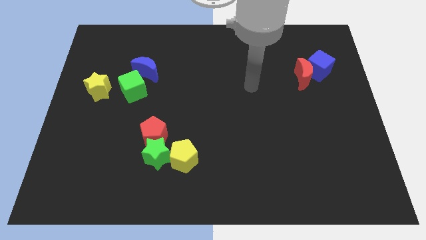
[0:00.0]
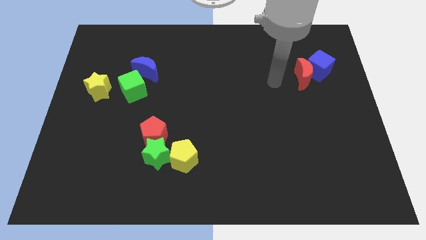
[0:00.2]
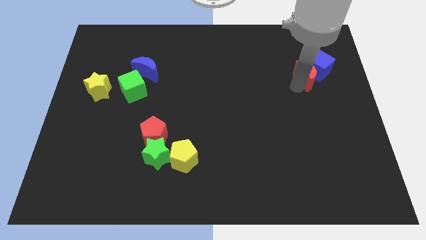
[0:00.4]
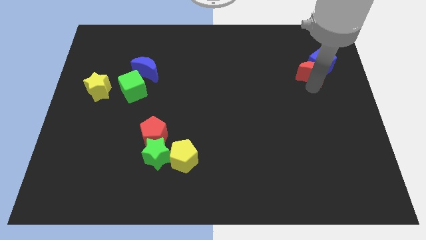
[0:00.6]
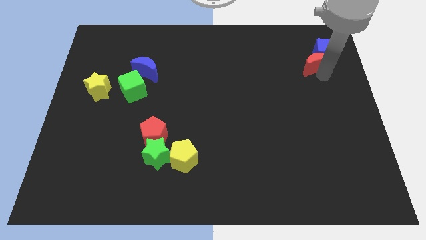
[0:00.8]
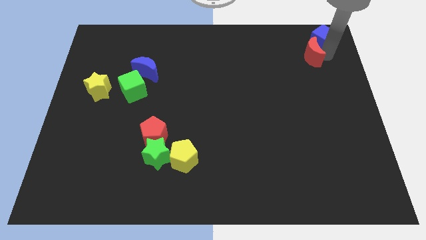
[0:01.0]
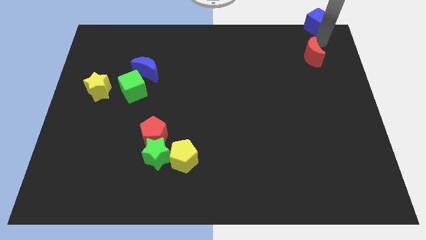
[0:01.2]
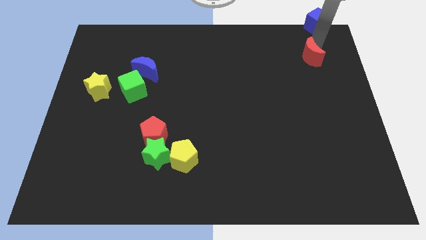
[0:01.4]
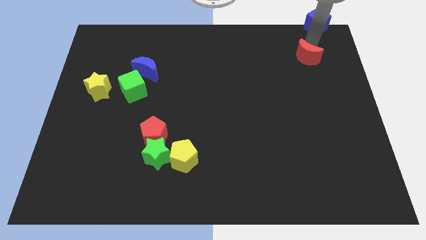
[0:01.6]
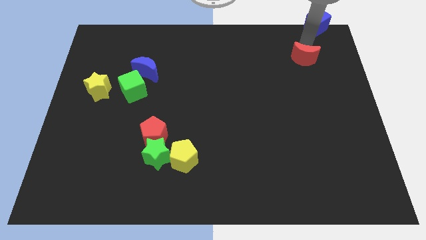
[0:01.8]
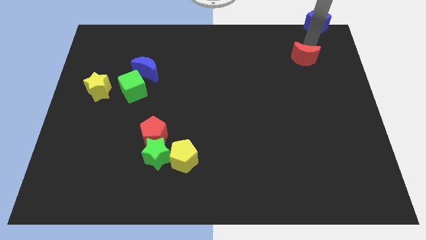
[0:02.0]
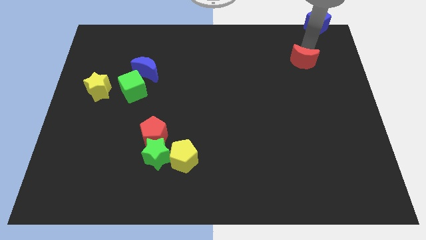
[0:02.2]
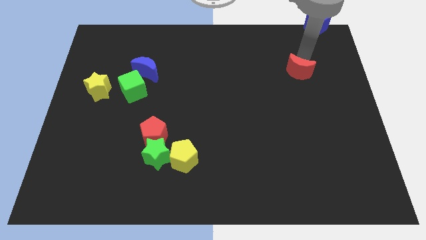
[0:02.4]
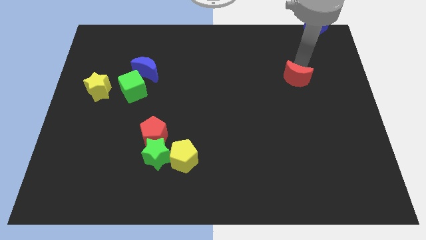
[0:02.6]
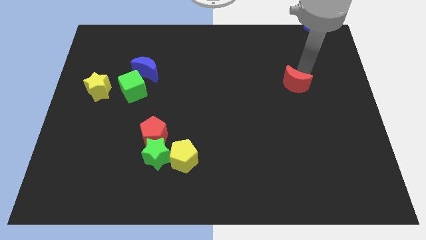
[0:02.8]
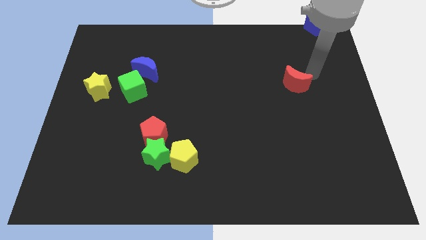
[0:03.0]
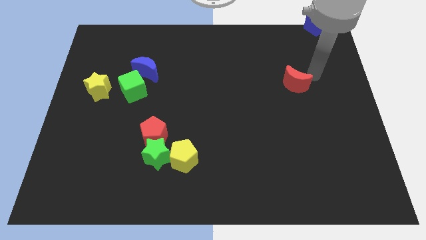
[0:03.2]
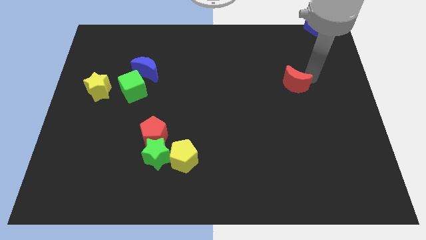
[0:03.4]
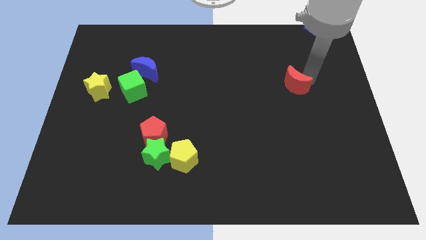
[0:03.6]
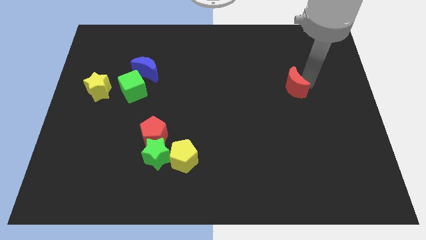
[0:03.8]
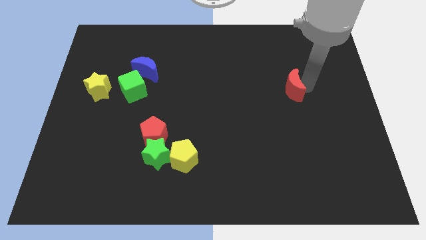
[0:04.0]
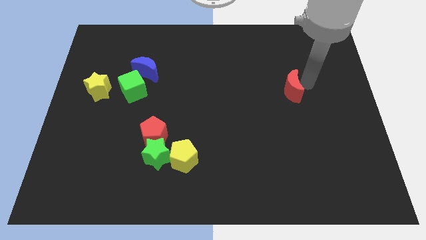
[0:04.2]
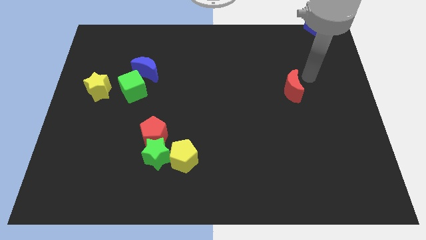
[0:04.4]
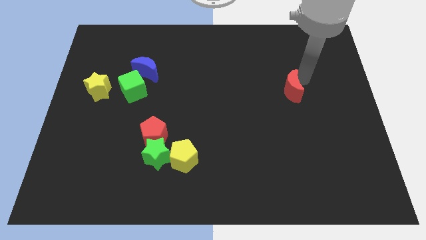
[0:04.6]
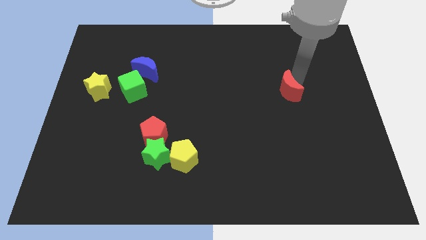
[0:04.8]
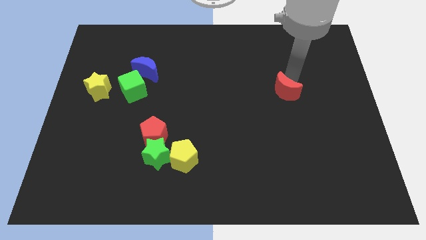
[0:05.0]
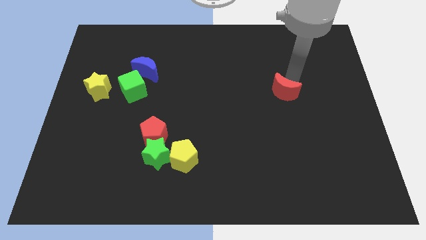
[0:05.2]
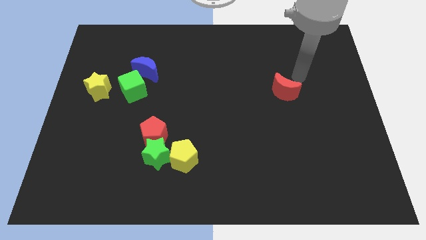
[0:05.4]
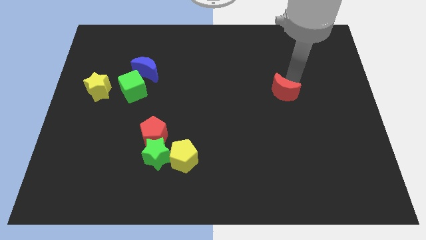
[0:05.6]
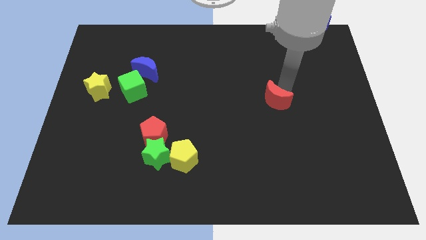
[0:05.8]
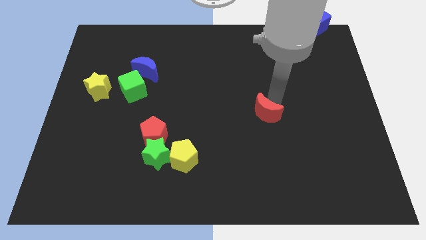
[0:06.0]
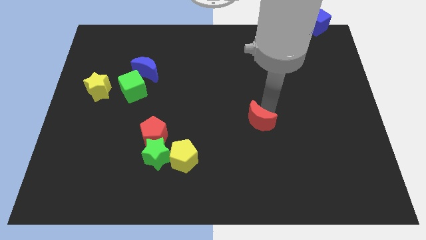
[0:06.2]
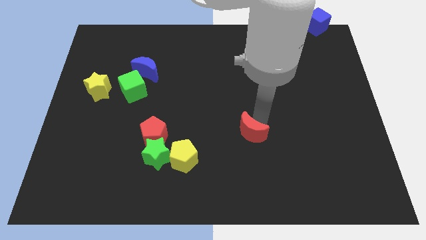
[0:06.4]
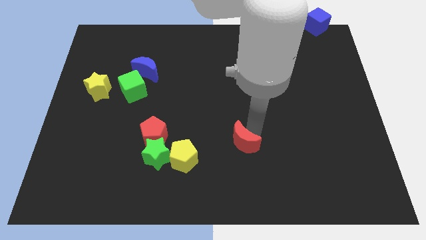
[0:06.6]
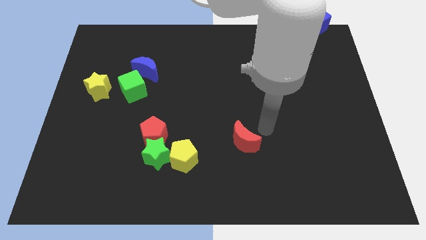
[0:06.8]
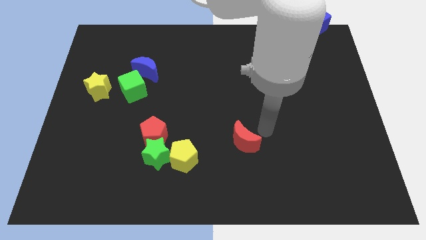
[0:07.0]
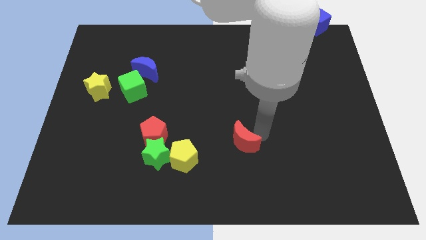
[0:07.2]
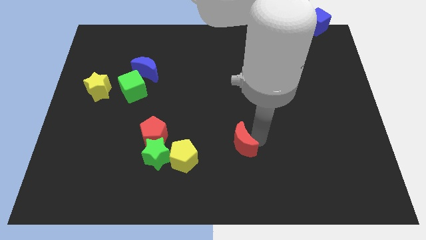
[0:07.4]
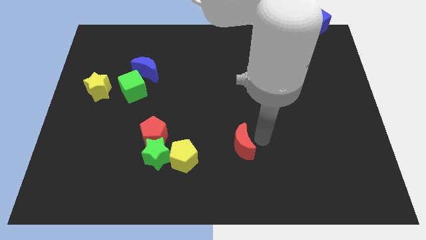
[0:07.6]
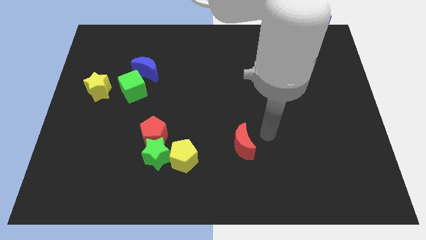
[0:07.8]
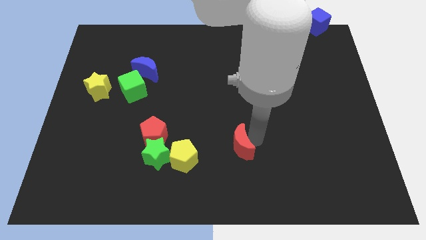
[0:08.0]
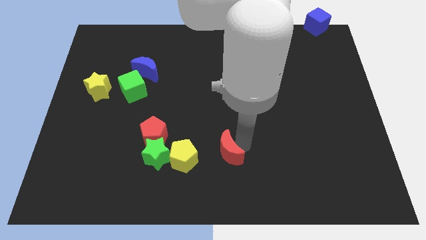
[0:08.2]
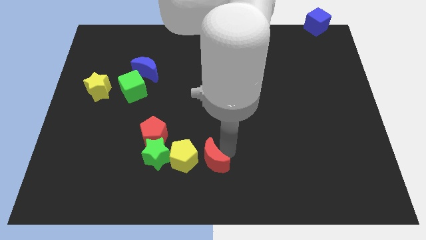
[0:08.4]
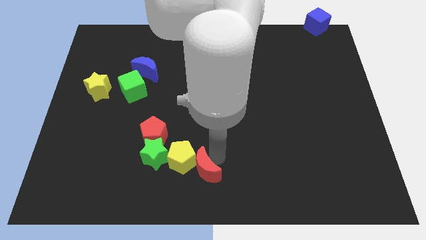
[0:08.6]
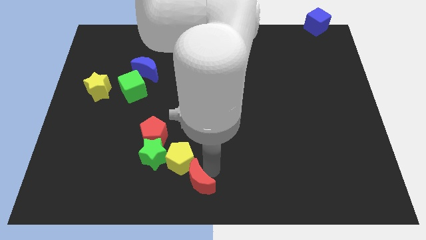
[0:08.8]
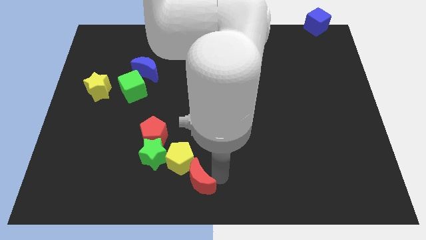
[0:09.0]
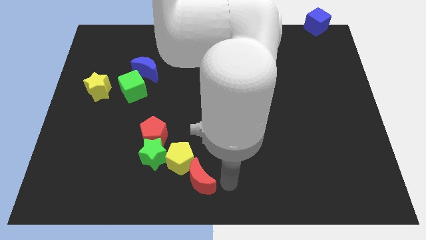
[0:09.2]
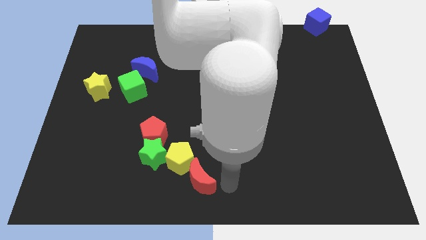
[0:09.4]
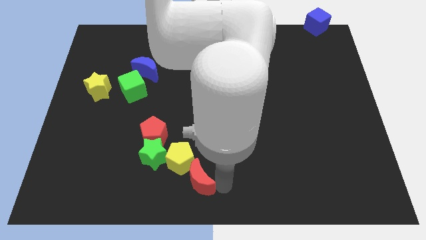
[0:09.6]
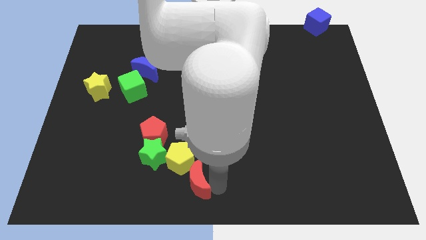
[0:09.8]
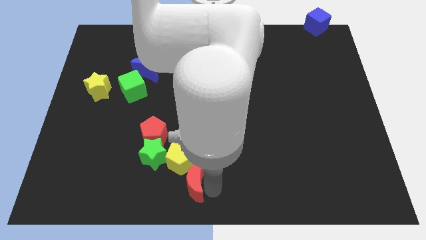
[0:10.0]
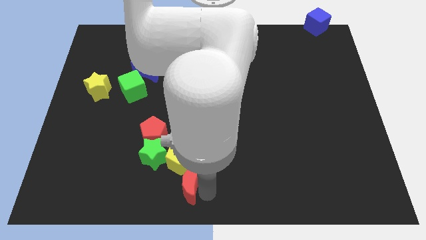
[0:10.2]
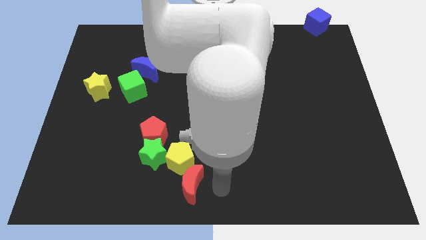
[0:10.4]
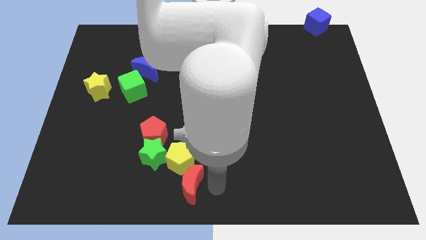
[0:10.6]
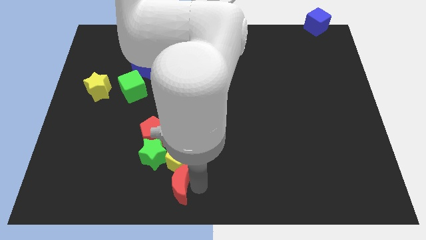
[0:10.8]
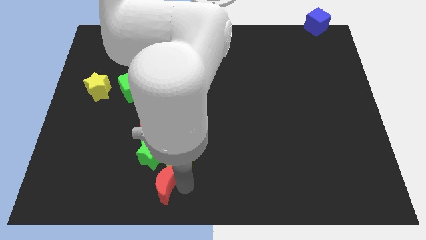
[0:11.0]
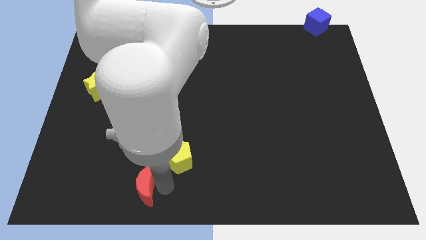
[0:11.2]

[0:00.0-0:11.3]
put the red moon to the bottom left side of the green star

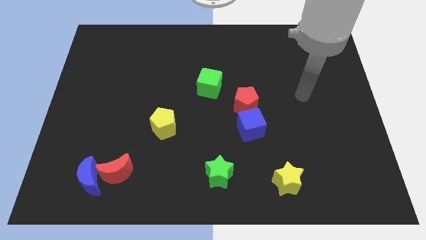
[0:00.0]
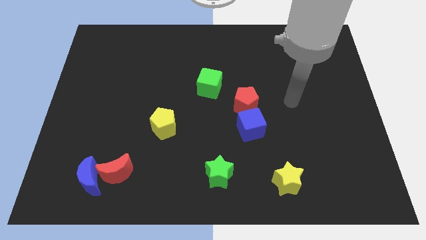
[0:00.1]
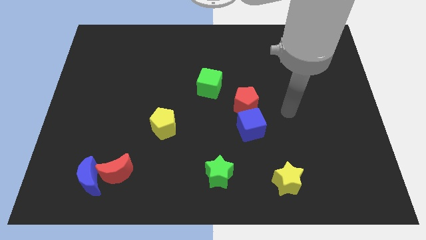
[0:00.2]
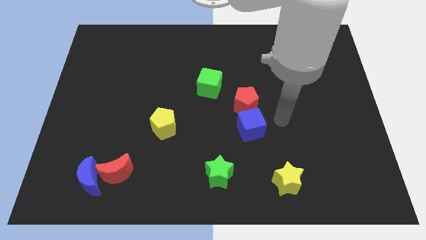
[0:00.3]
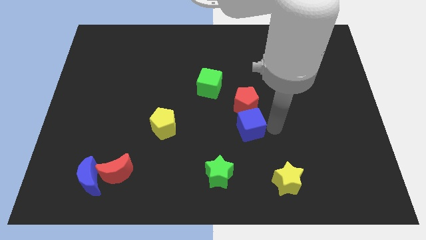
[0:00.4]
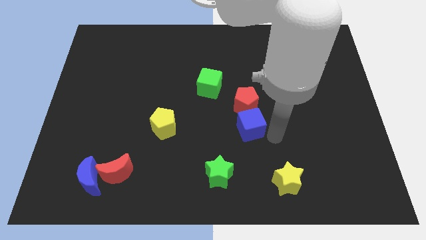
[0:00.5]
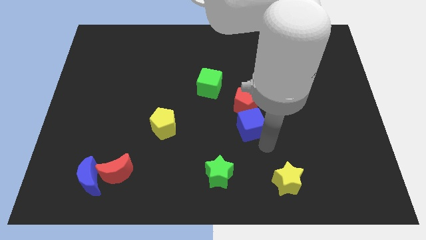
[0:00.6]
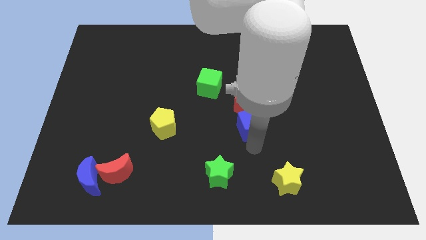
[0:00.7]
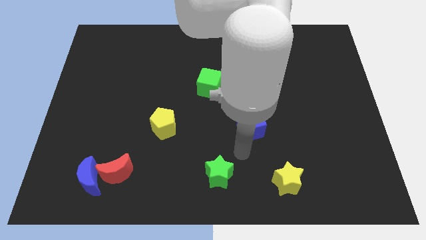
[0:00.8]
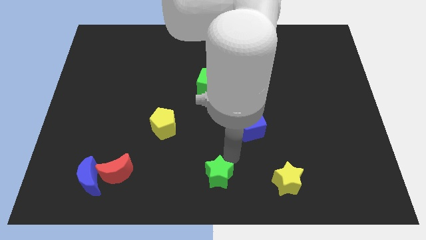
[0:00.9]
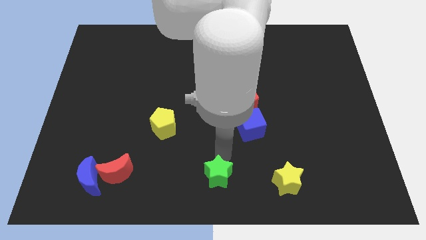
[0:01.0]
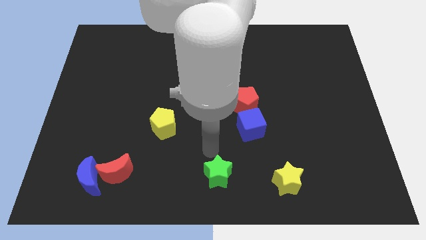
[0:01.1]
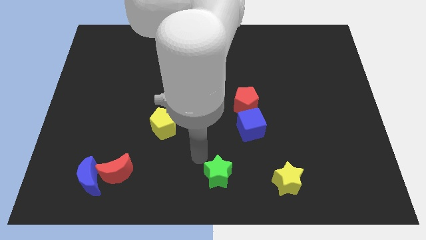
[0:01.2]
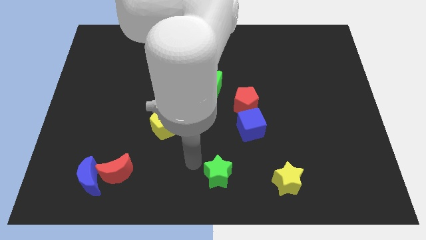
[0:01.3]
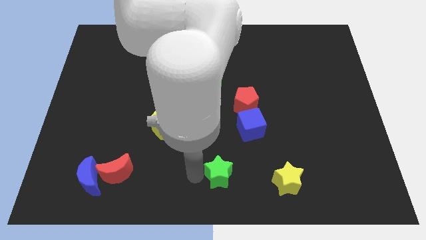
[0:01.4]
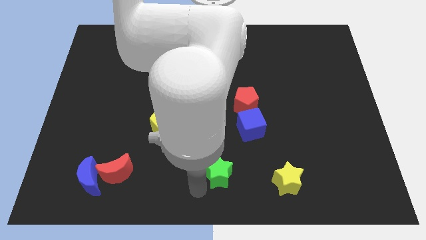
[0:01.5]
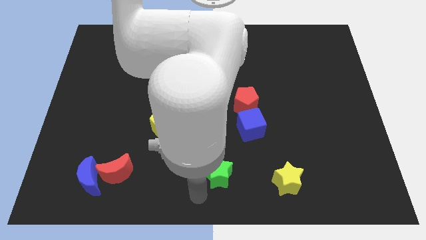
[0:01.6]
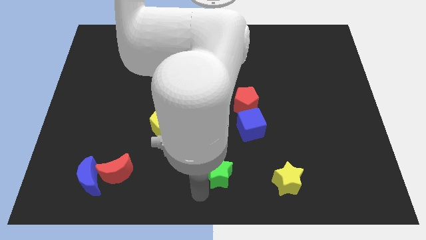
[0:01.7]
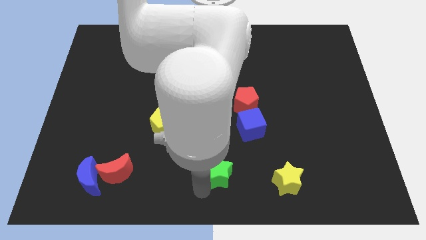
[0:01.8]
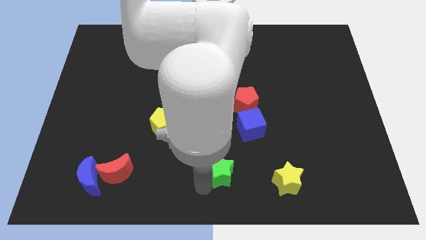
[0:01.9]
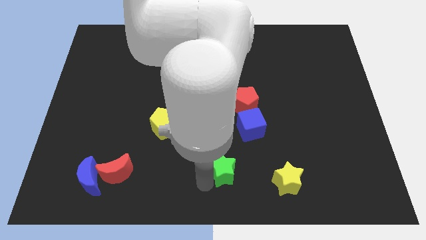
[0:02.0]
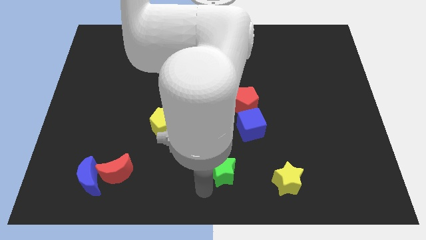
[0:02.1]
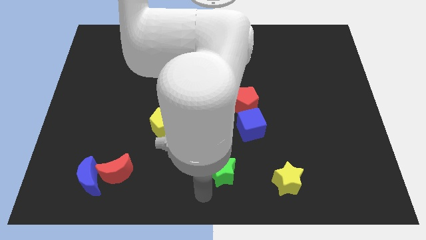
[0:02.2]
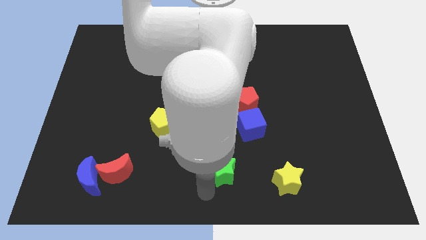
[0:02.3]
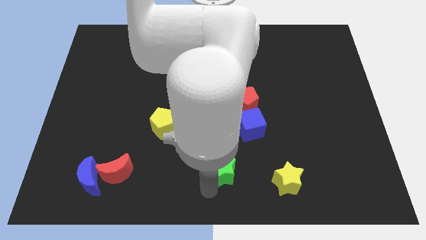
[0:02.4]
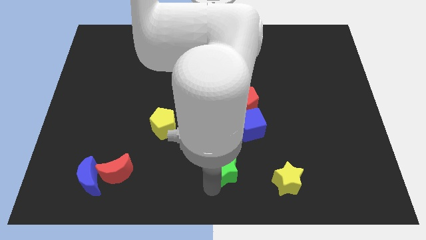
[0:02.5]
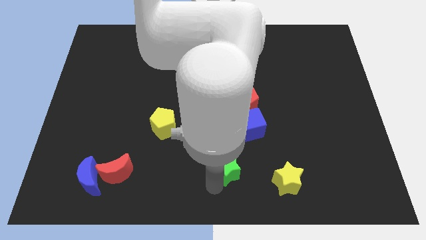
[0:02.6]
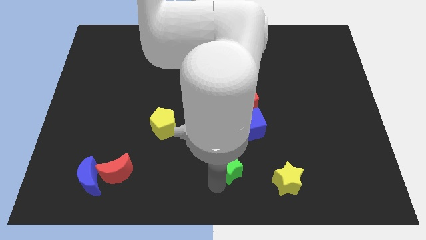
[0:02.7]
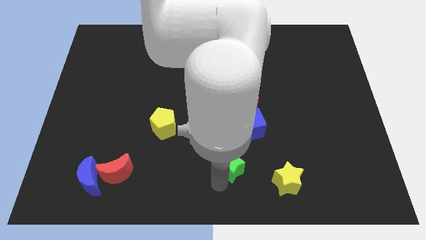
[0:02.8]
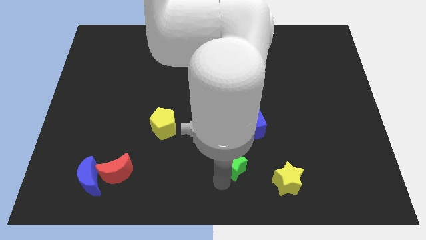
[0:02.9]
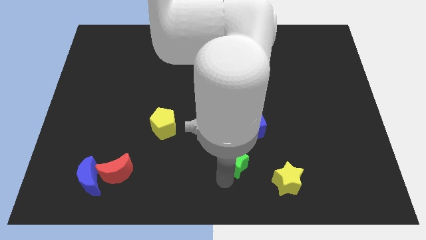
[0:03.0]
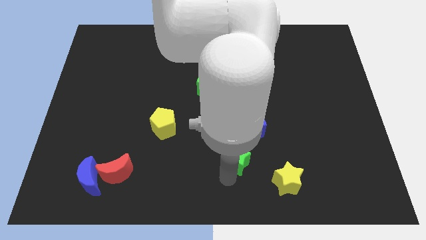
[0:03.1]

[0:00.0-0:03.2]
push the green star to the bottom side of the red pentagon
